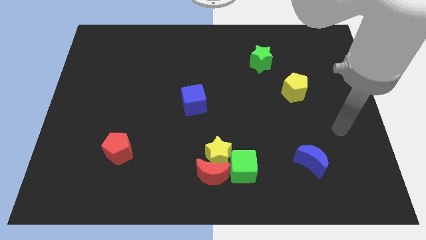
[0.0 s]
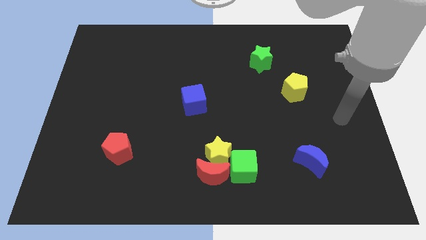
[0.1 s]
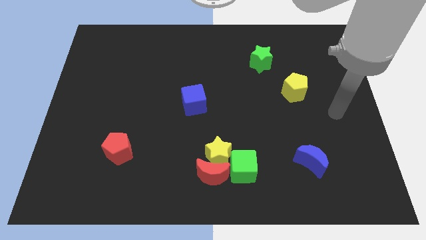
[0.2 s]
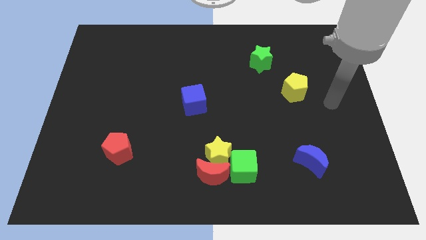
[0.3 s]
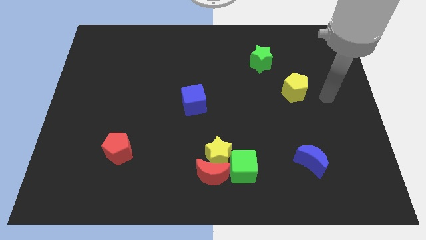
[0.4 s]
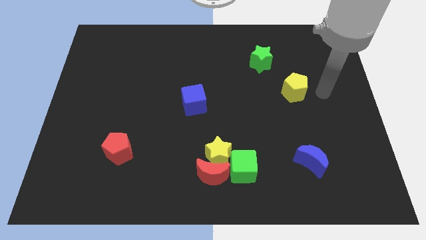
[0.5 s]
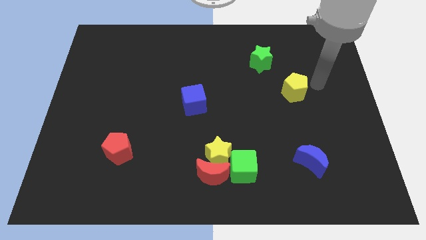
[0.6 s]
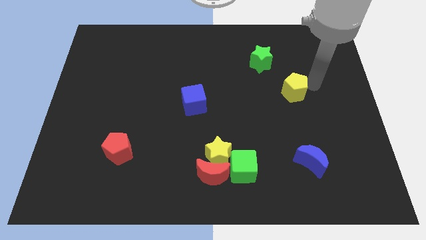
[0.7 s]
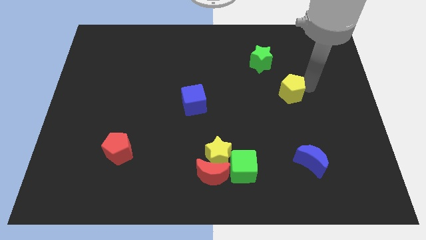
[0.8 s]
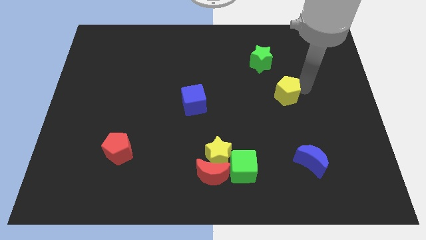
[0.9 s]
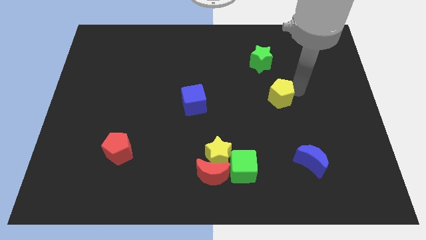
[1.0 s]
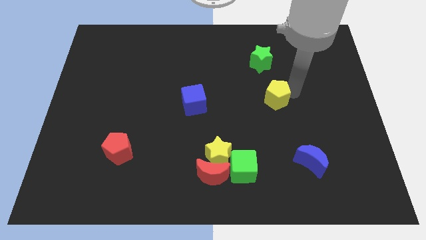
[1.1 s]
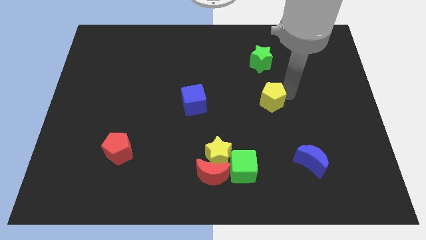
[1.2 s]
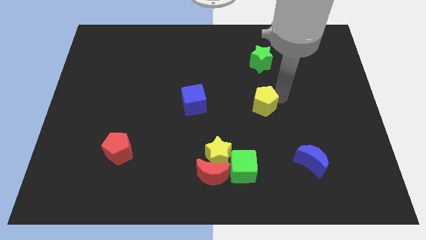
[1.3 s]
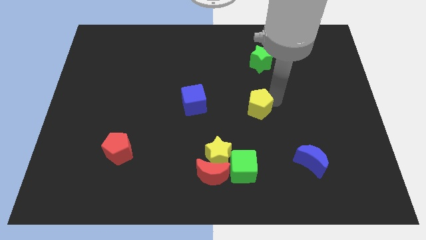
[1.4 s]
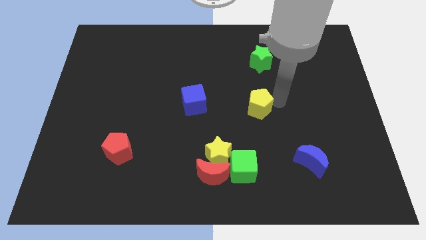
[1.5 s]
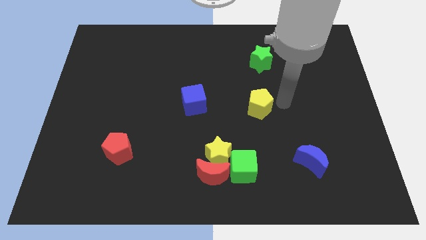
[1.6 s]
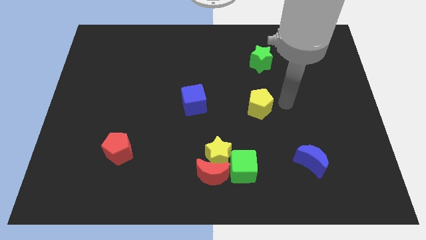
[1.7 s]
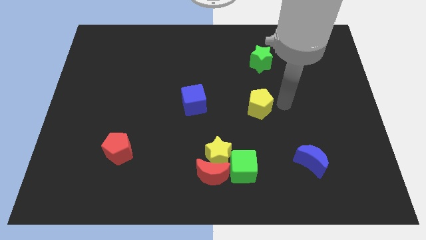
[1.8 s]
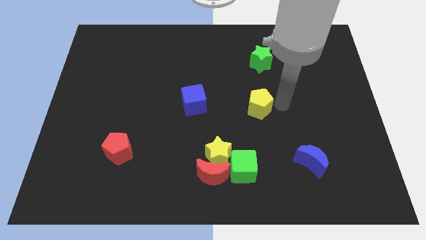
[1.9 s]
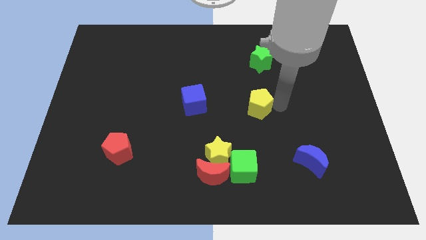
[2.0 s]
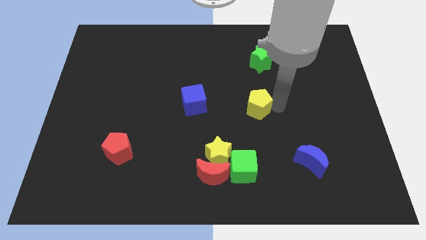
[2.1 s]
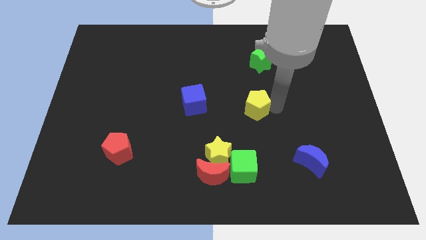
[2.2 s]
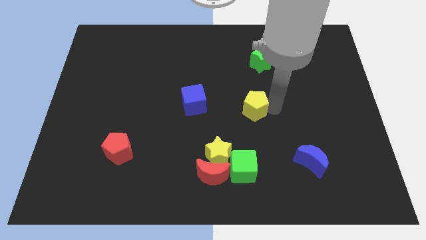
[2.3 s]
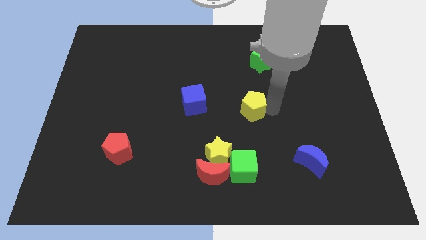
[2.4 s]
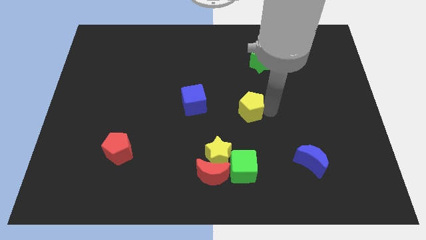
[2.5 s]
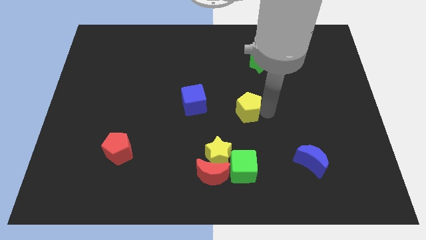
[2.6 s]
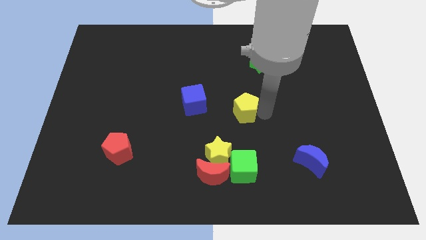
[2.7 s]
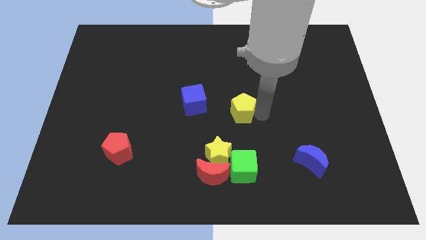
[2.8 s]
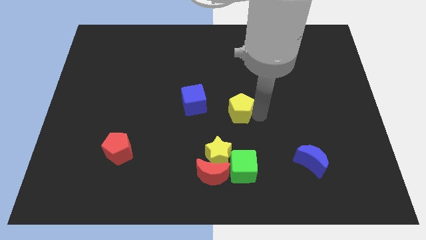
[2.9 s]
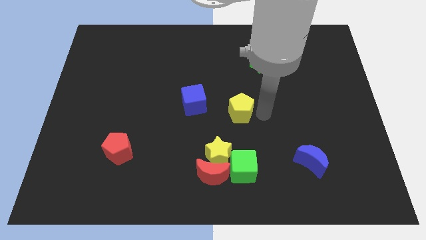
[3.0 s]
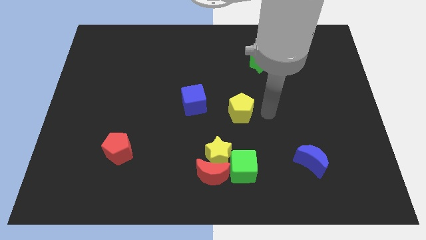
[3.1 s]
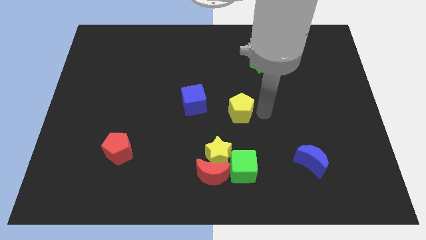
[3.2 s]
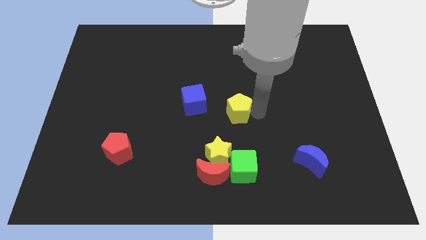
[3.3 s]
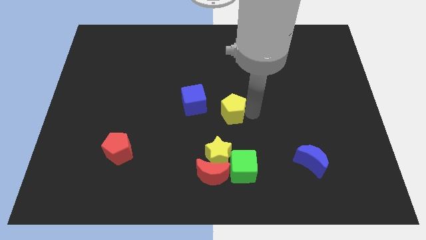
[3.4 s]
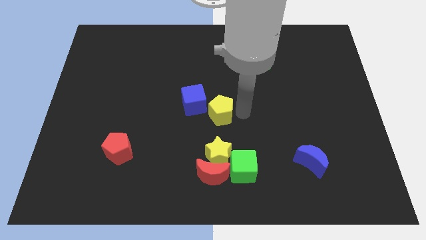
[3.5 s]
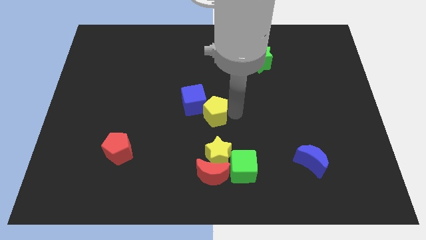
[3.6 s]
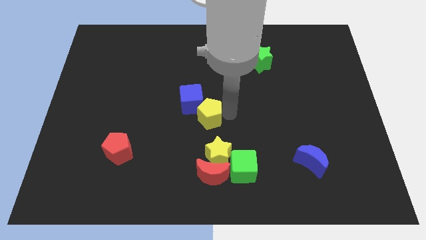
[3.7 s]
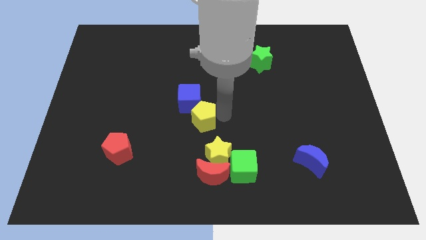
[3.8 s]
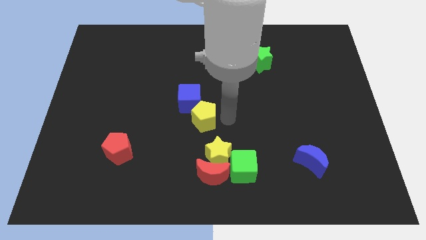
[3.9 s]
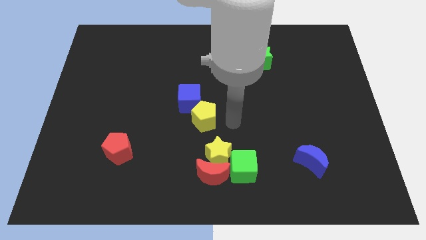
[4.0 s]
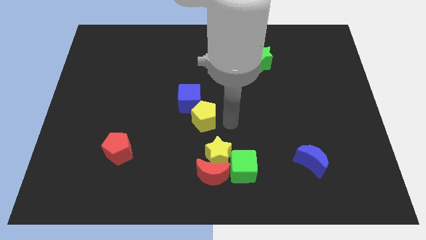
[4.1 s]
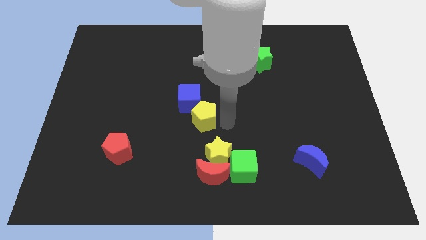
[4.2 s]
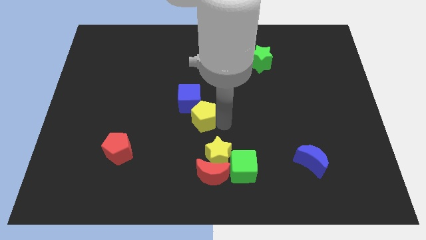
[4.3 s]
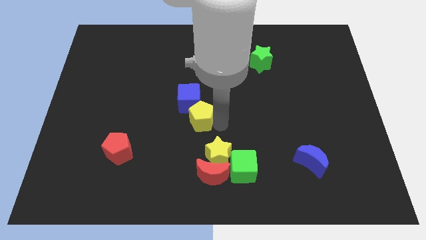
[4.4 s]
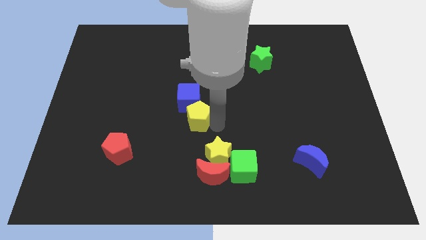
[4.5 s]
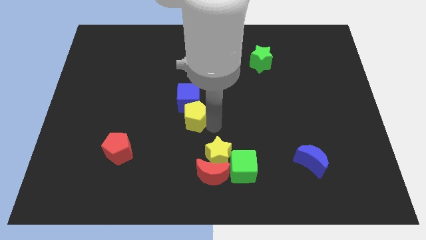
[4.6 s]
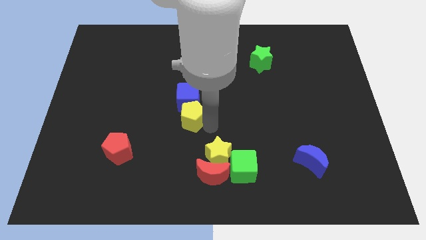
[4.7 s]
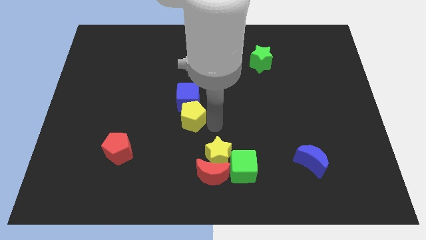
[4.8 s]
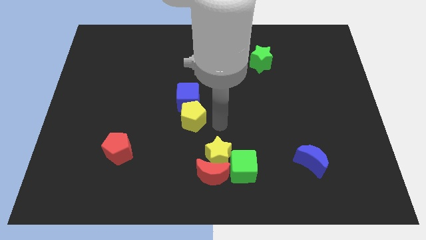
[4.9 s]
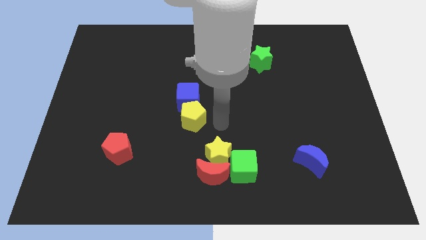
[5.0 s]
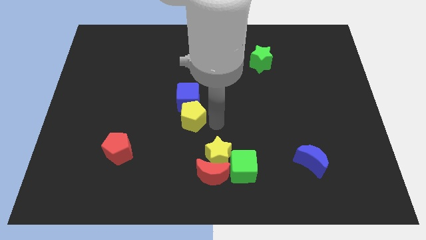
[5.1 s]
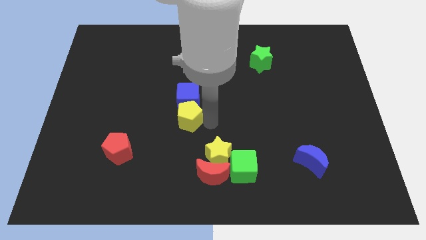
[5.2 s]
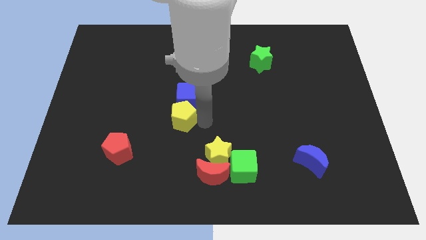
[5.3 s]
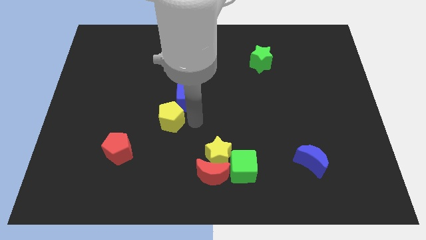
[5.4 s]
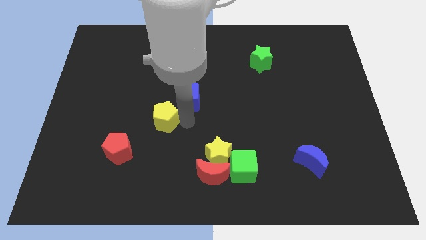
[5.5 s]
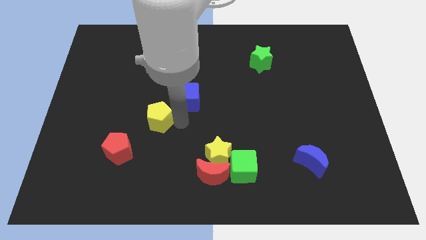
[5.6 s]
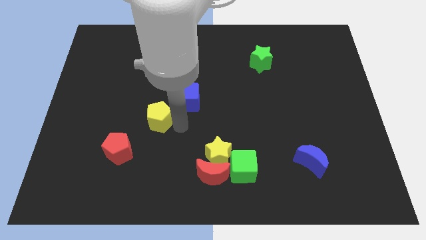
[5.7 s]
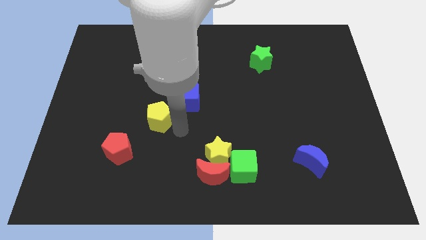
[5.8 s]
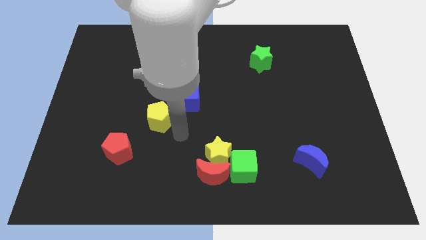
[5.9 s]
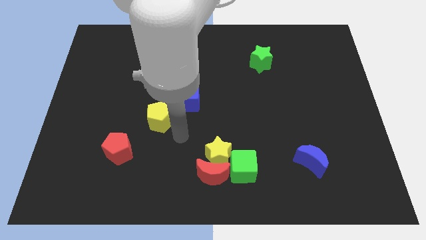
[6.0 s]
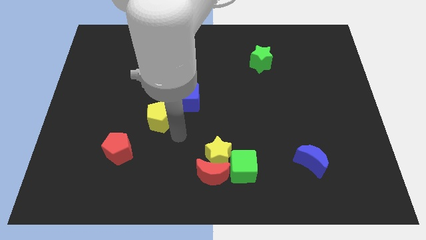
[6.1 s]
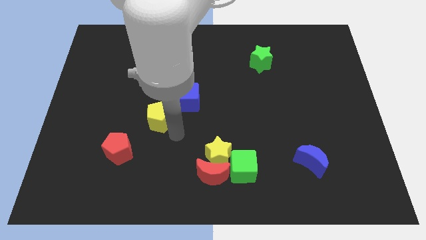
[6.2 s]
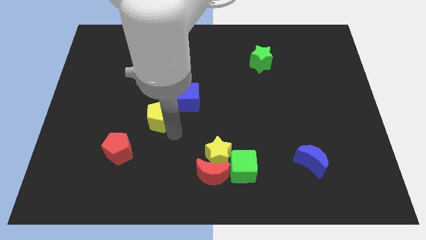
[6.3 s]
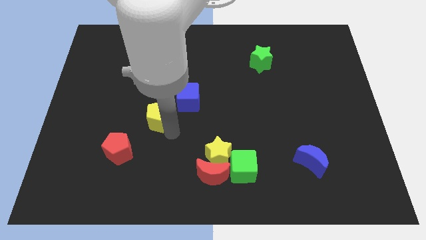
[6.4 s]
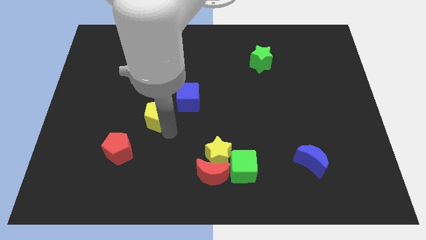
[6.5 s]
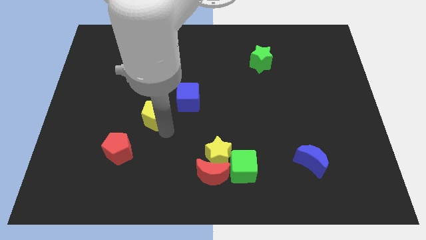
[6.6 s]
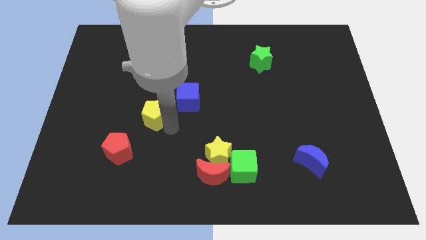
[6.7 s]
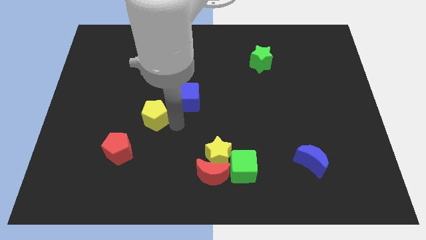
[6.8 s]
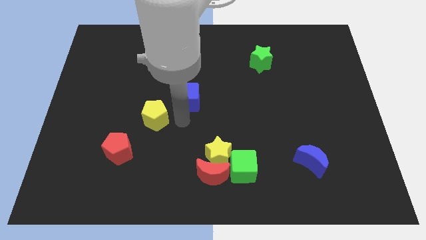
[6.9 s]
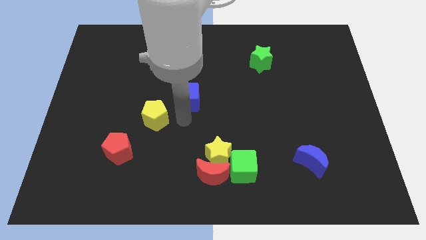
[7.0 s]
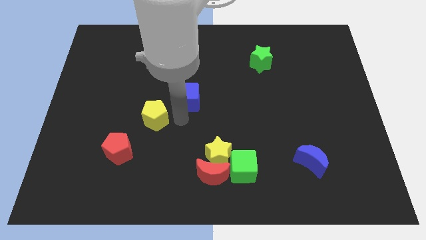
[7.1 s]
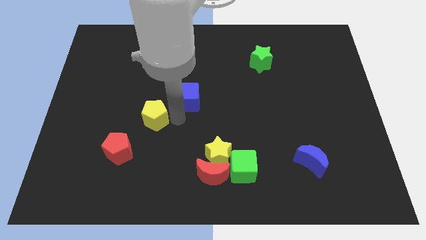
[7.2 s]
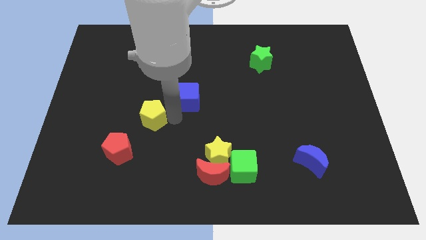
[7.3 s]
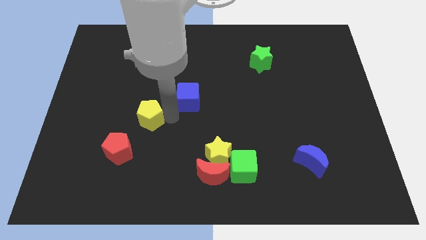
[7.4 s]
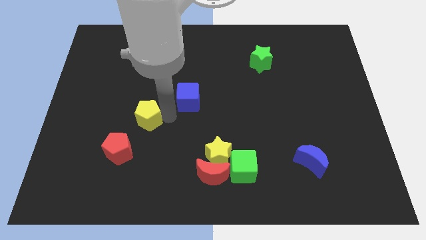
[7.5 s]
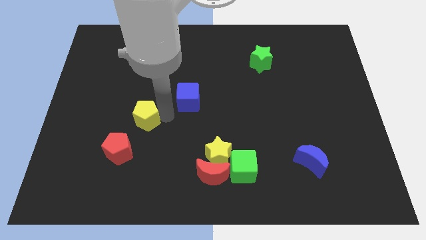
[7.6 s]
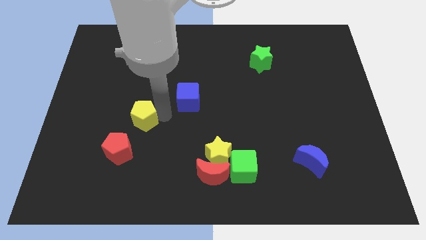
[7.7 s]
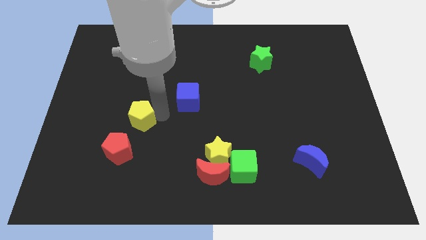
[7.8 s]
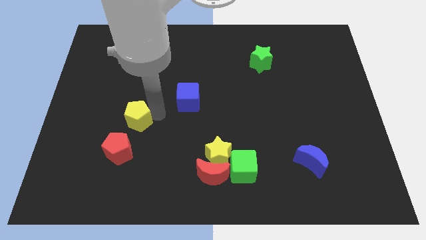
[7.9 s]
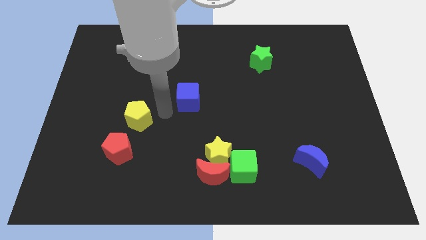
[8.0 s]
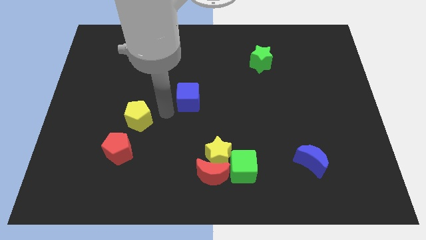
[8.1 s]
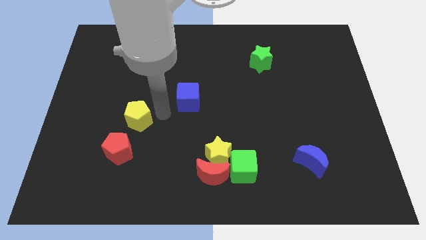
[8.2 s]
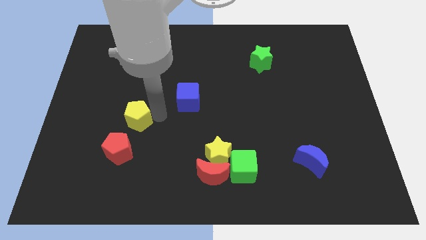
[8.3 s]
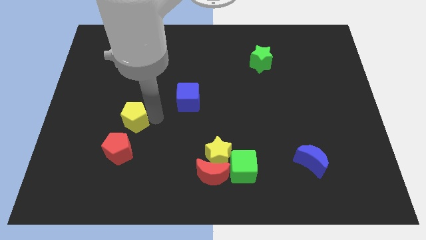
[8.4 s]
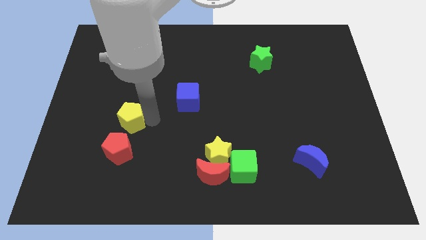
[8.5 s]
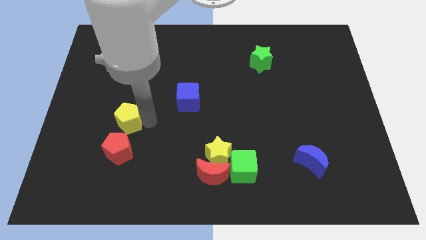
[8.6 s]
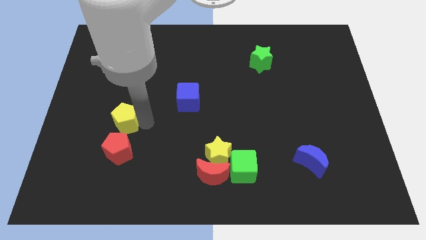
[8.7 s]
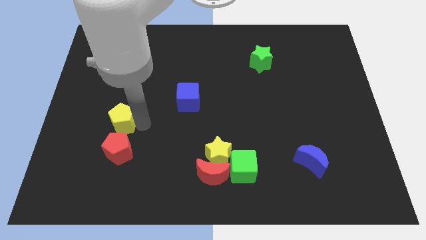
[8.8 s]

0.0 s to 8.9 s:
put the yellow pentagon diagonally up and to the left of the red pentagon
